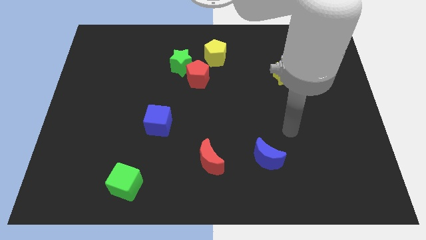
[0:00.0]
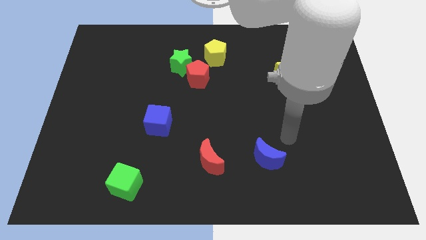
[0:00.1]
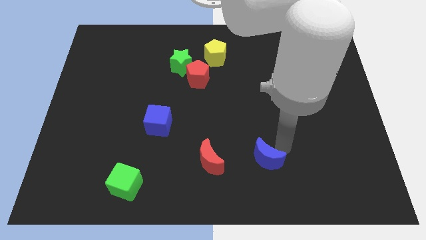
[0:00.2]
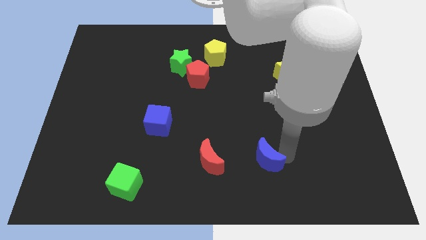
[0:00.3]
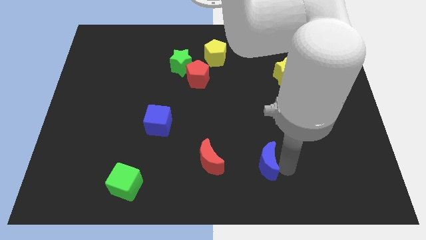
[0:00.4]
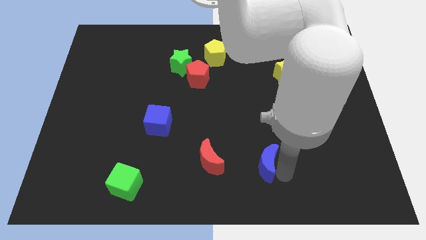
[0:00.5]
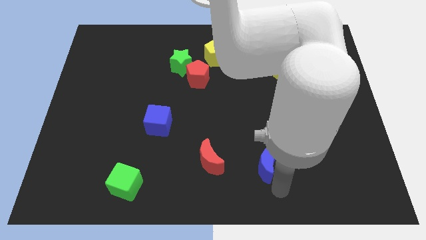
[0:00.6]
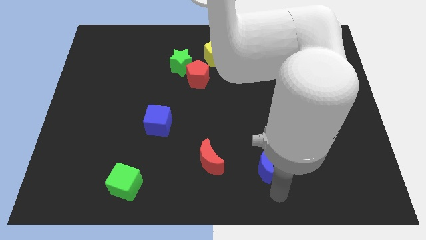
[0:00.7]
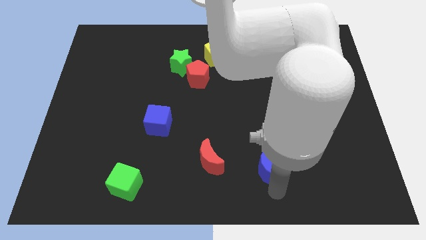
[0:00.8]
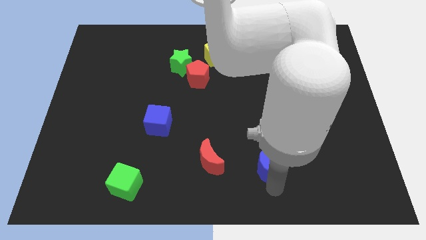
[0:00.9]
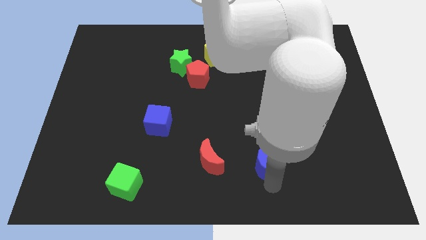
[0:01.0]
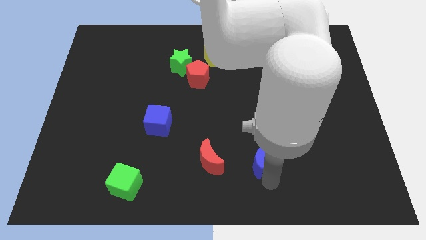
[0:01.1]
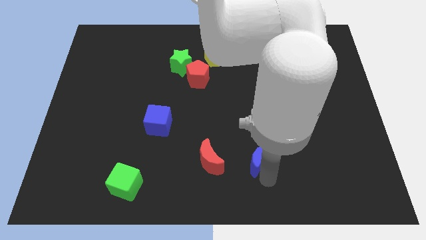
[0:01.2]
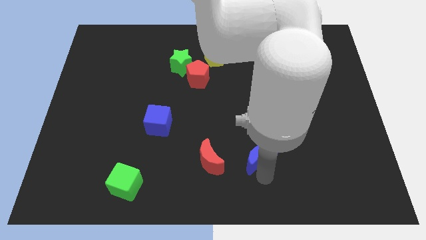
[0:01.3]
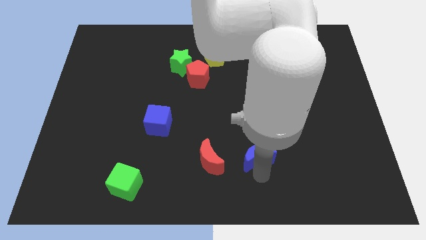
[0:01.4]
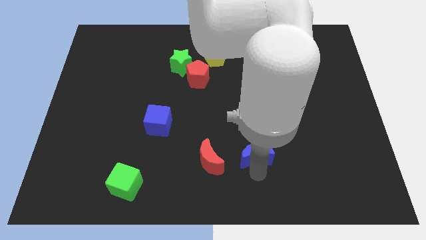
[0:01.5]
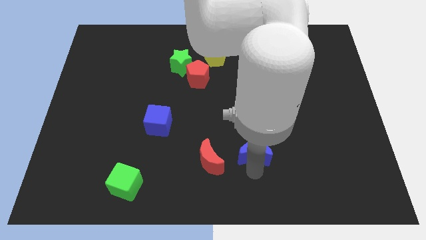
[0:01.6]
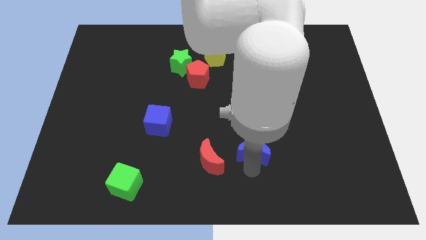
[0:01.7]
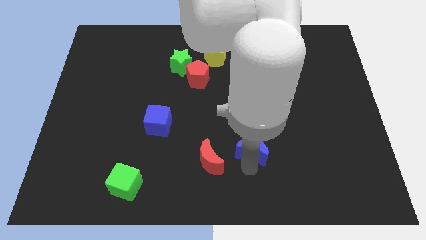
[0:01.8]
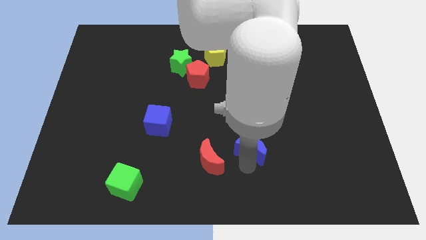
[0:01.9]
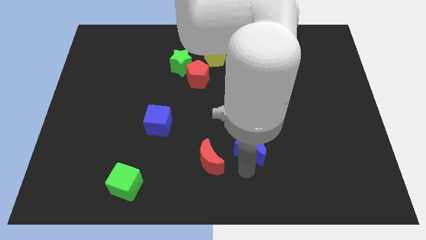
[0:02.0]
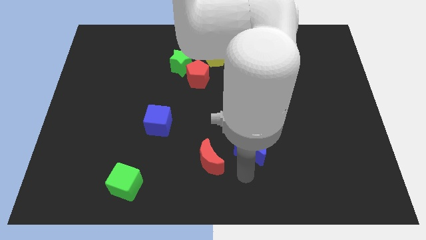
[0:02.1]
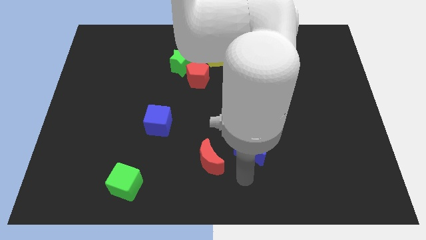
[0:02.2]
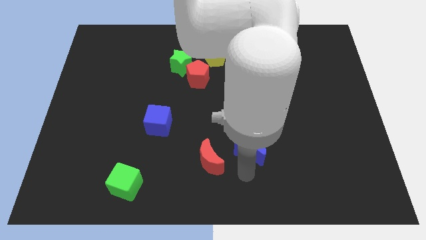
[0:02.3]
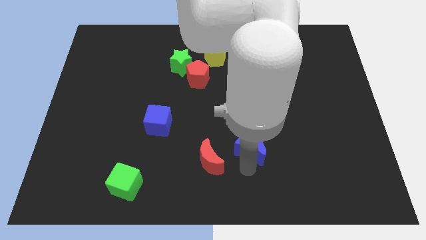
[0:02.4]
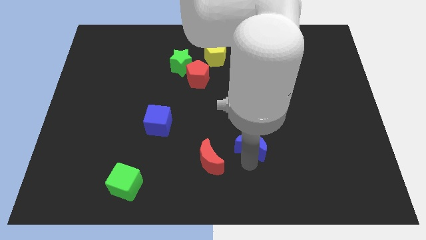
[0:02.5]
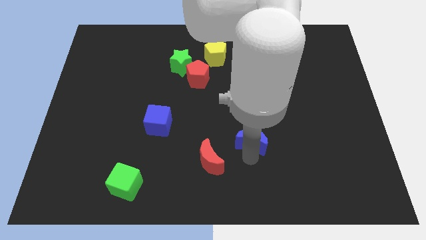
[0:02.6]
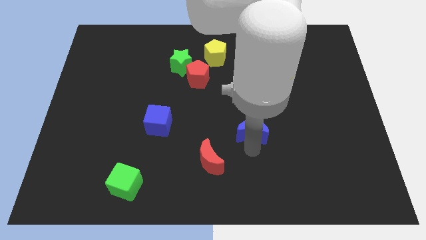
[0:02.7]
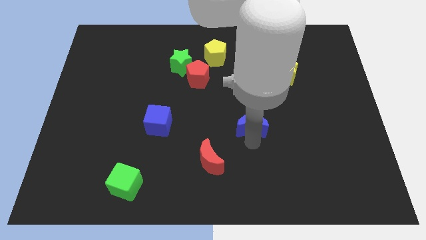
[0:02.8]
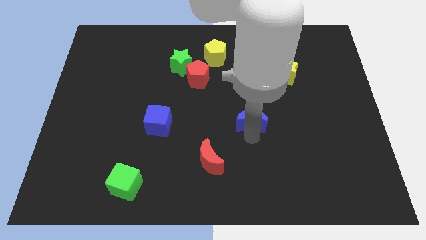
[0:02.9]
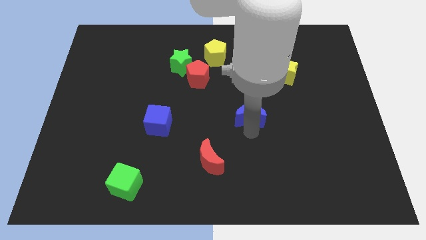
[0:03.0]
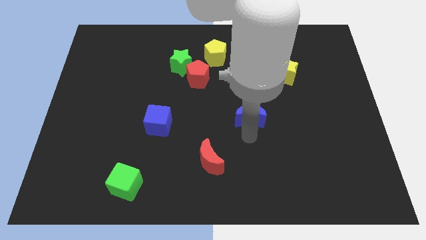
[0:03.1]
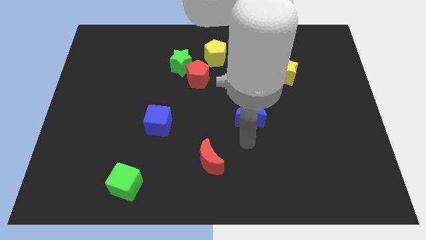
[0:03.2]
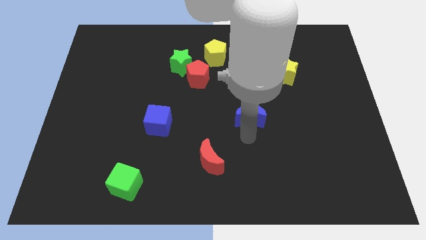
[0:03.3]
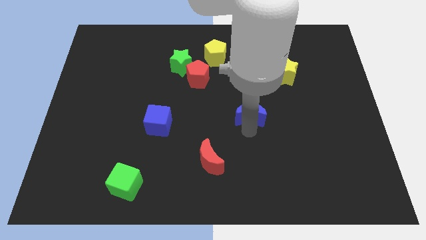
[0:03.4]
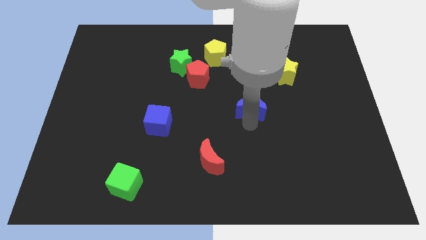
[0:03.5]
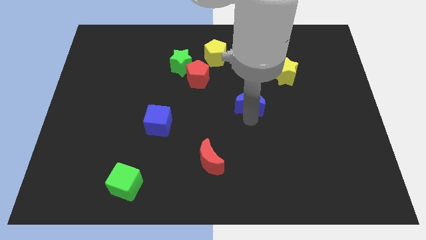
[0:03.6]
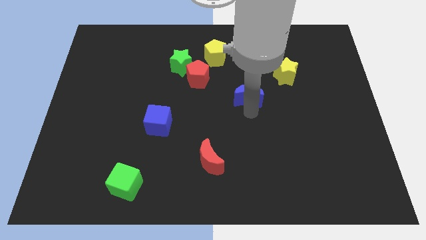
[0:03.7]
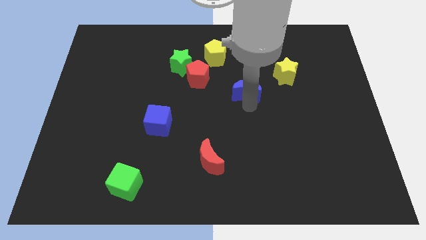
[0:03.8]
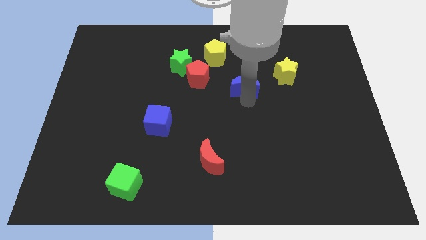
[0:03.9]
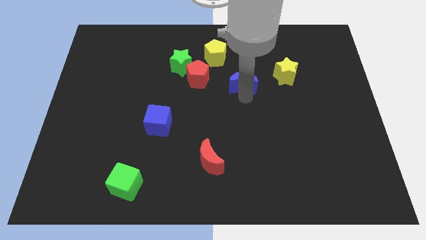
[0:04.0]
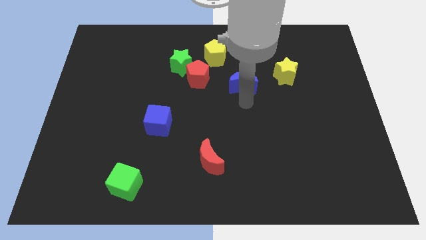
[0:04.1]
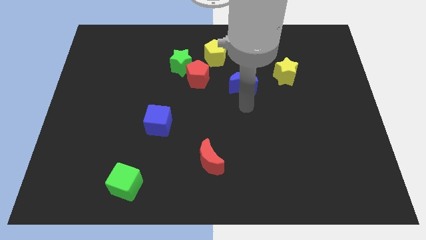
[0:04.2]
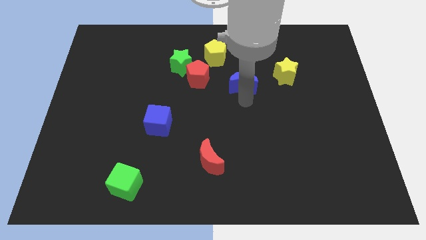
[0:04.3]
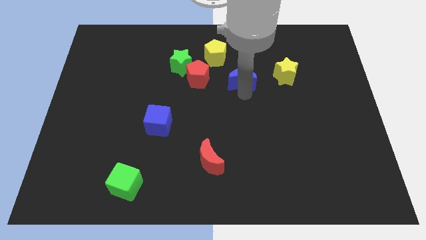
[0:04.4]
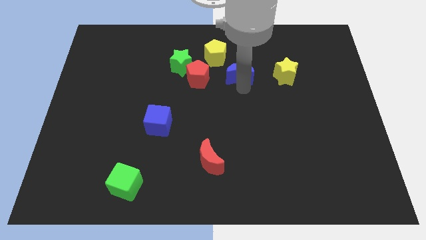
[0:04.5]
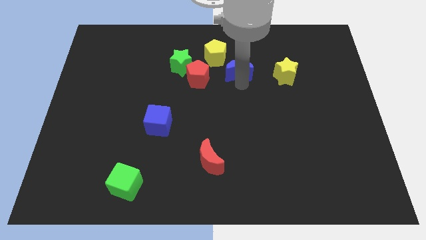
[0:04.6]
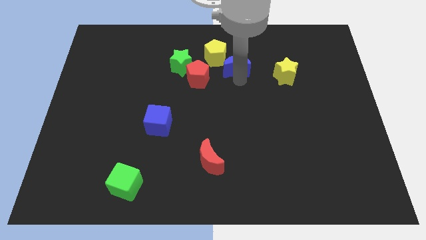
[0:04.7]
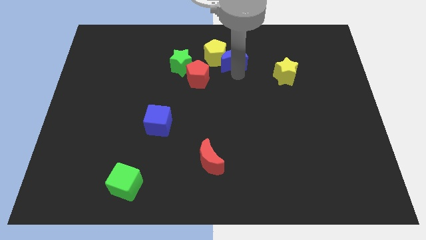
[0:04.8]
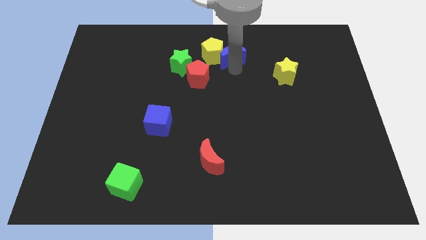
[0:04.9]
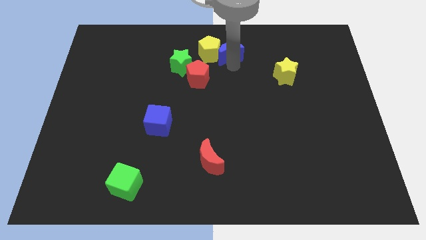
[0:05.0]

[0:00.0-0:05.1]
slide the blue moon to the top side

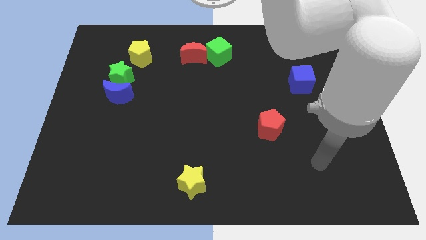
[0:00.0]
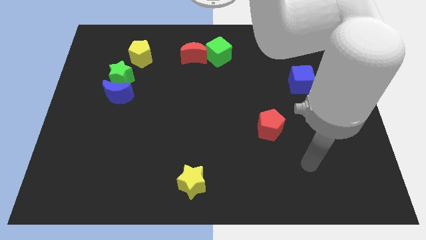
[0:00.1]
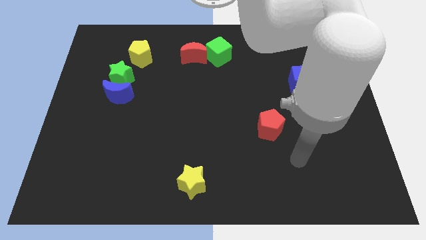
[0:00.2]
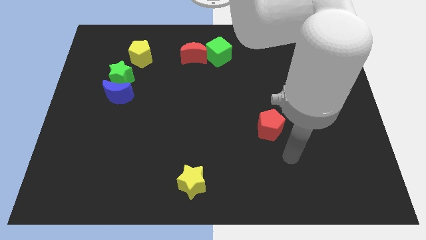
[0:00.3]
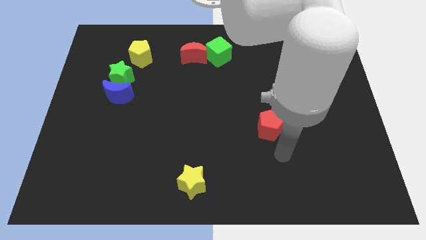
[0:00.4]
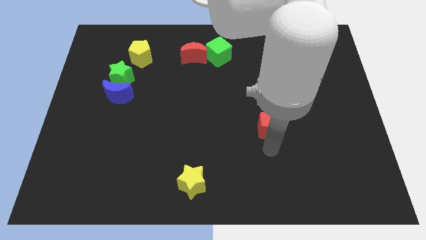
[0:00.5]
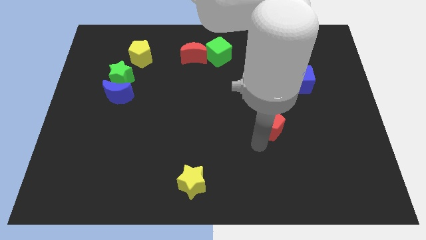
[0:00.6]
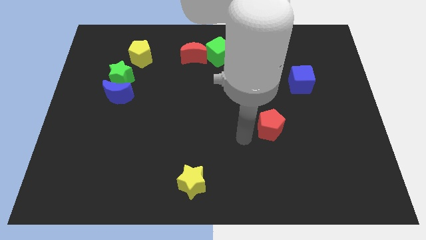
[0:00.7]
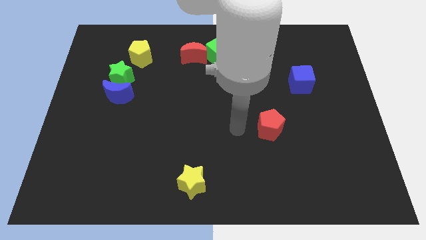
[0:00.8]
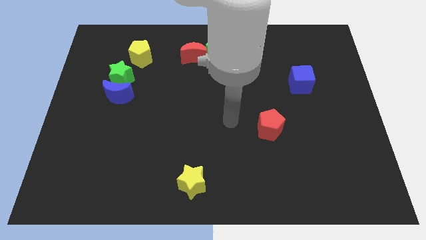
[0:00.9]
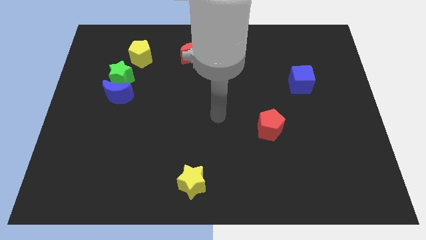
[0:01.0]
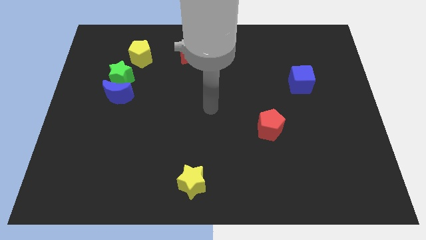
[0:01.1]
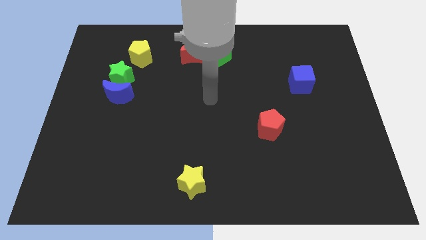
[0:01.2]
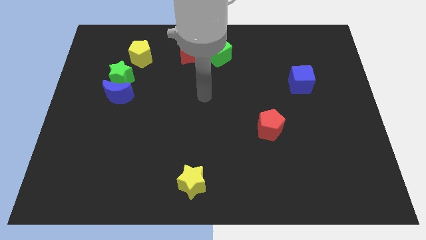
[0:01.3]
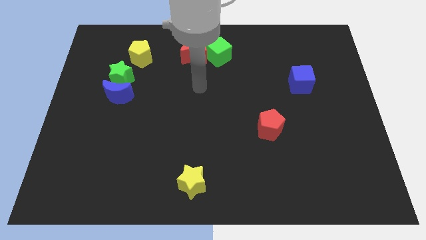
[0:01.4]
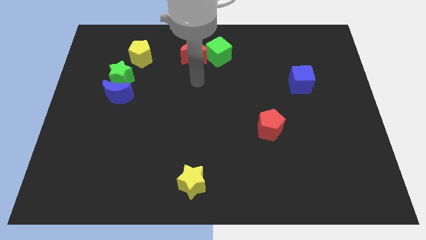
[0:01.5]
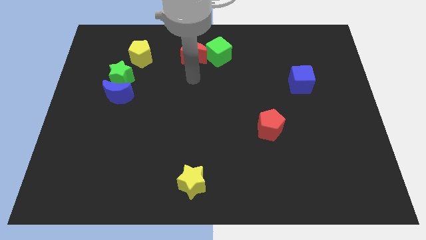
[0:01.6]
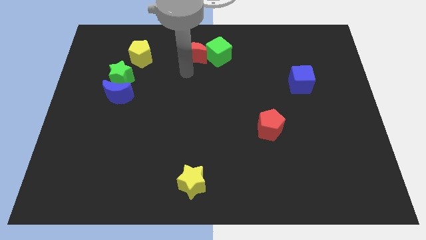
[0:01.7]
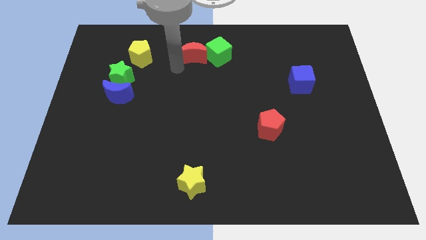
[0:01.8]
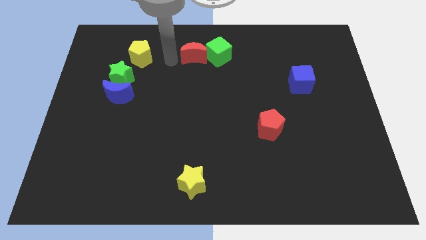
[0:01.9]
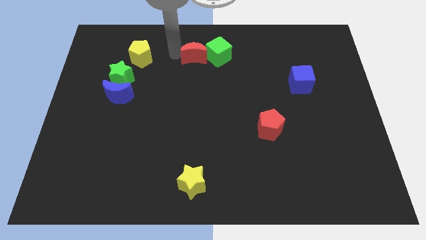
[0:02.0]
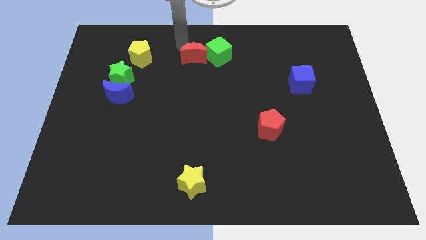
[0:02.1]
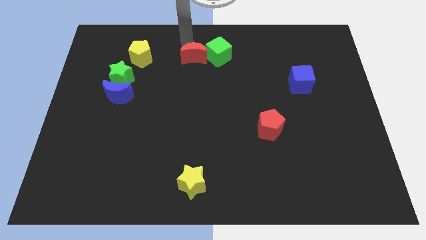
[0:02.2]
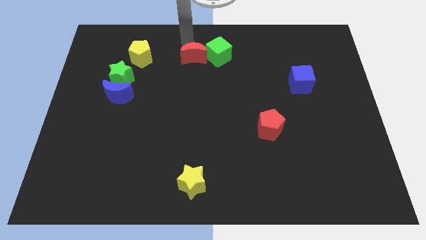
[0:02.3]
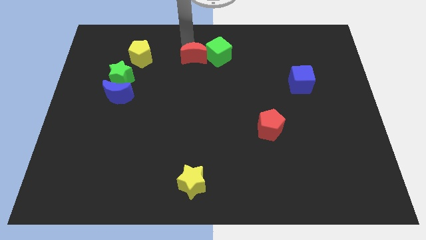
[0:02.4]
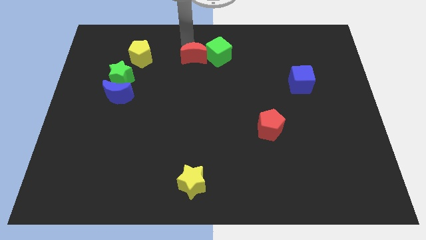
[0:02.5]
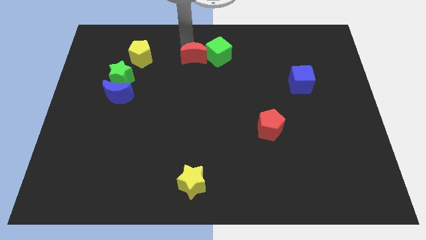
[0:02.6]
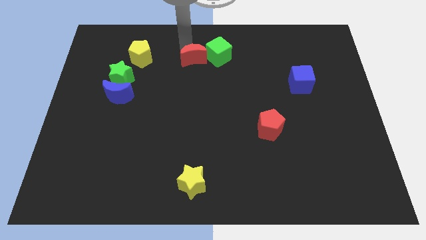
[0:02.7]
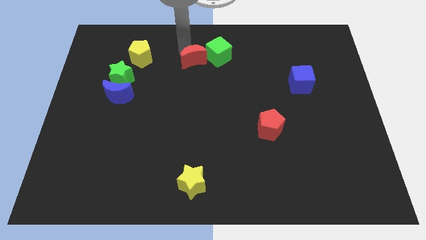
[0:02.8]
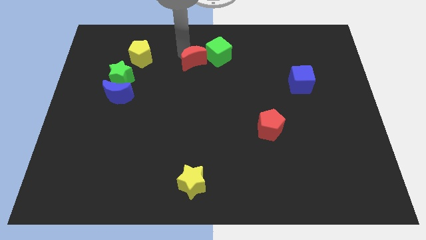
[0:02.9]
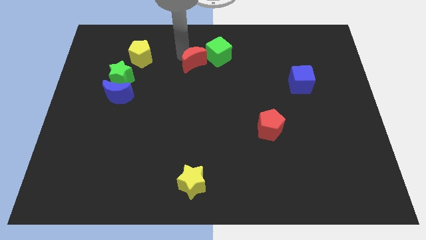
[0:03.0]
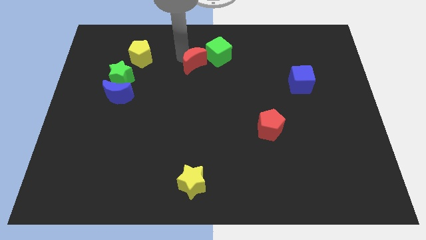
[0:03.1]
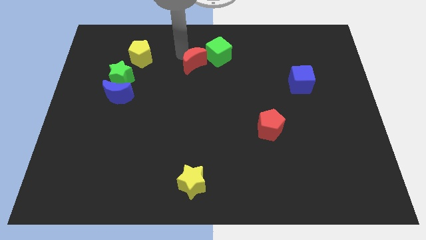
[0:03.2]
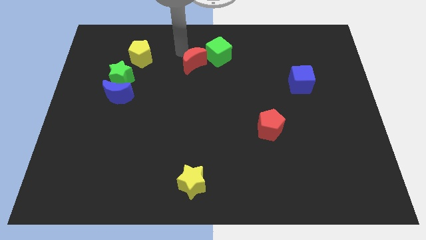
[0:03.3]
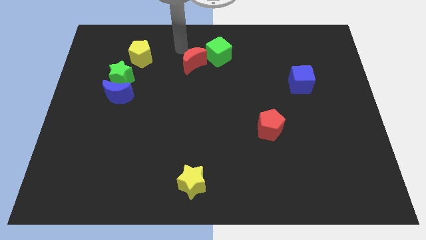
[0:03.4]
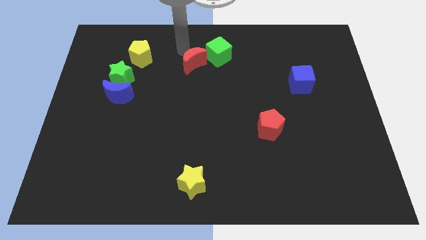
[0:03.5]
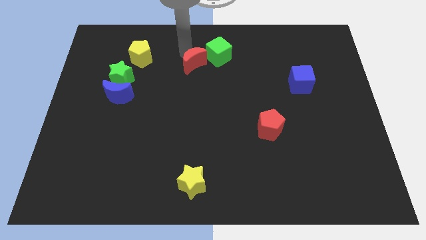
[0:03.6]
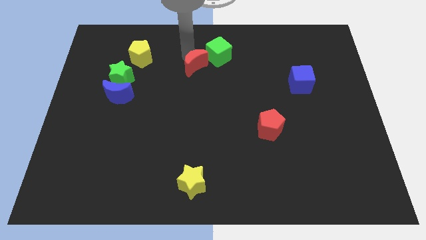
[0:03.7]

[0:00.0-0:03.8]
slide the red moon to the center
